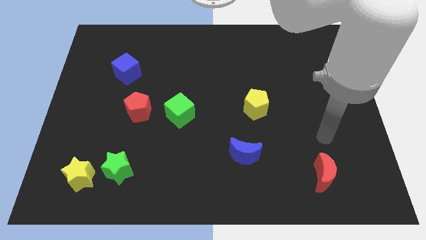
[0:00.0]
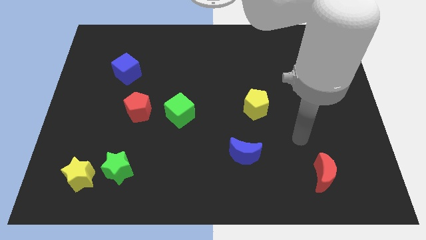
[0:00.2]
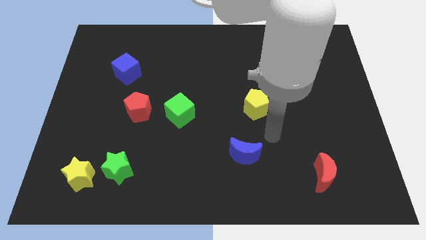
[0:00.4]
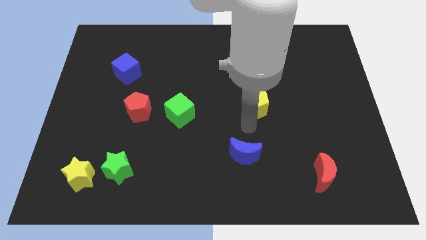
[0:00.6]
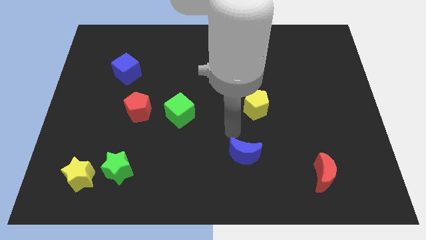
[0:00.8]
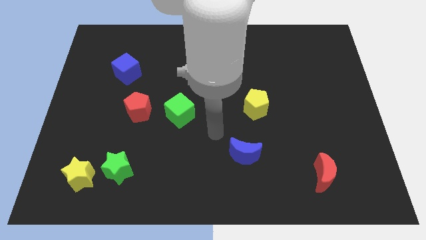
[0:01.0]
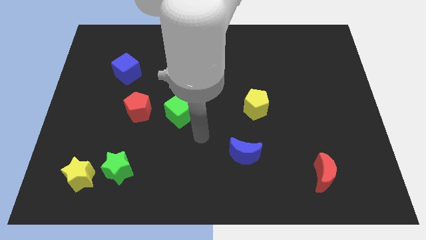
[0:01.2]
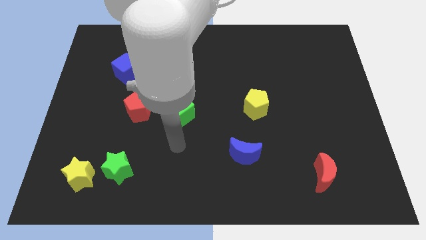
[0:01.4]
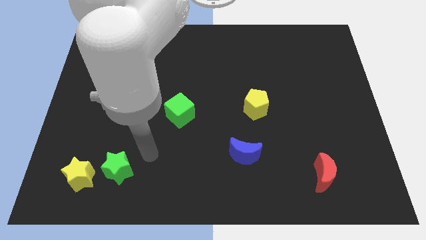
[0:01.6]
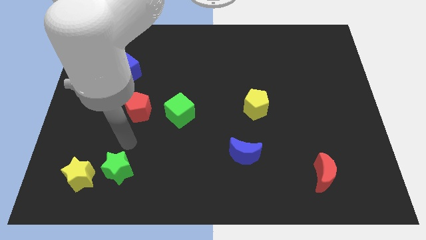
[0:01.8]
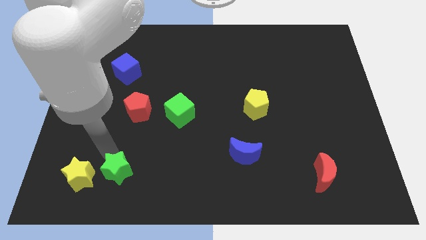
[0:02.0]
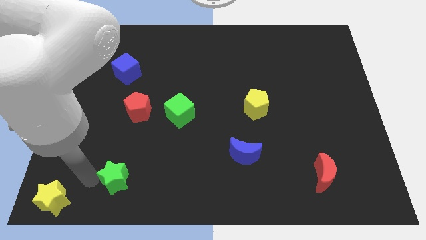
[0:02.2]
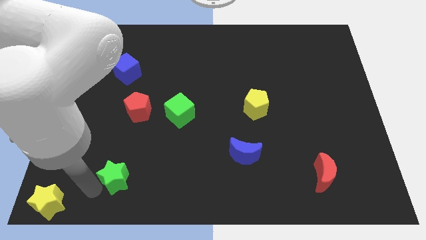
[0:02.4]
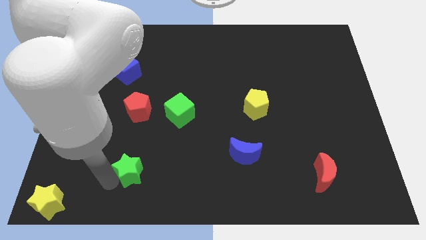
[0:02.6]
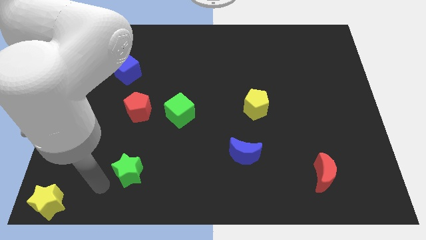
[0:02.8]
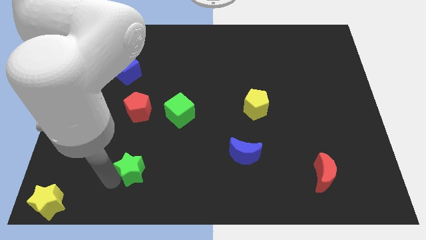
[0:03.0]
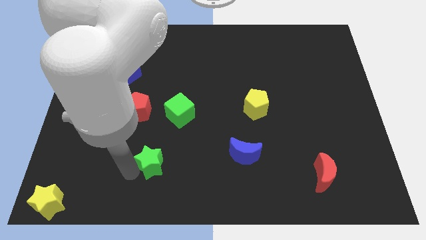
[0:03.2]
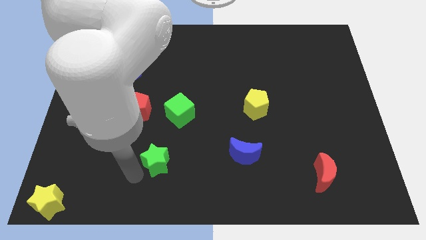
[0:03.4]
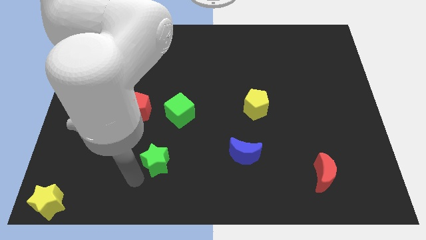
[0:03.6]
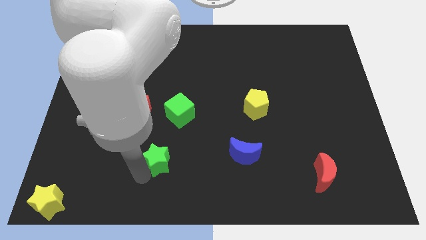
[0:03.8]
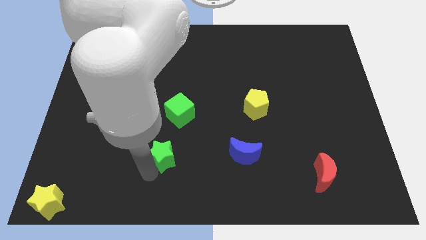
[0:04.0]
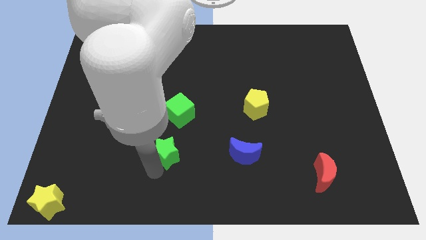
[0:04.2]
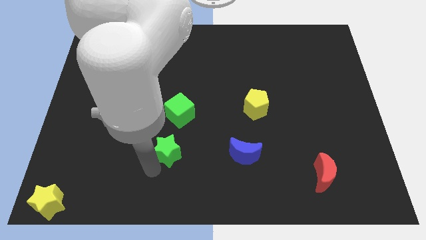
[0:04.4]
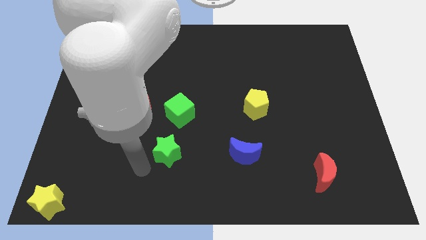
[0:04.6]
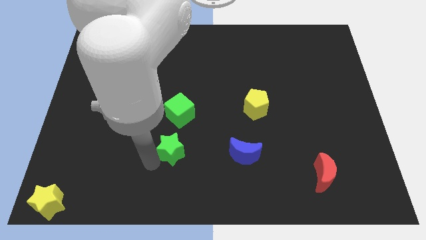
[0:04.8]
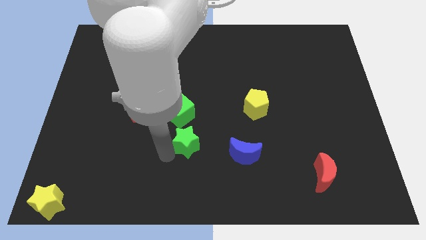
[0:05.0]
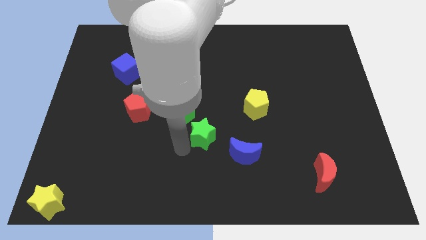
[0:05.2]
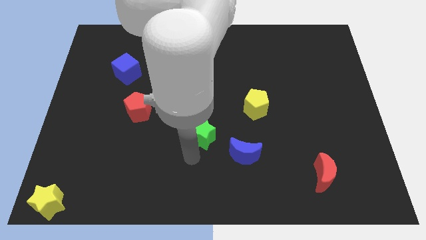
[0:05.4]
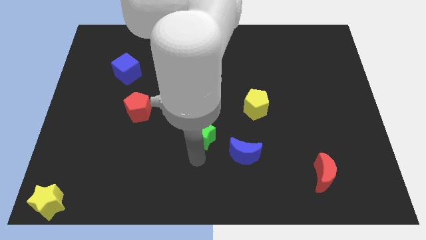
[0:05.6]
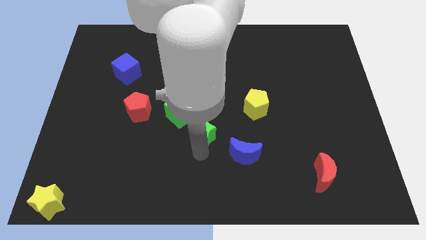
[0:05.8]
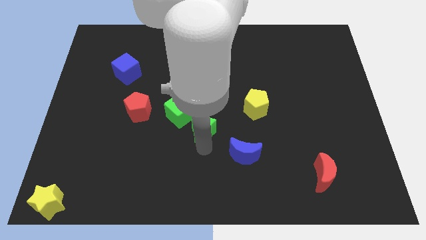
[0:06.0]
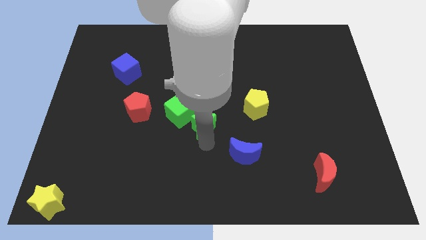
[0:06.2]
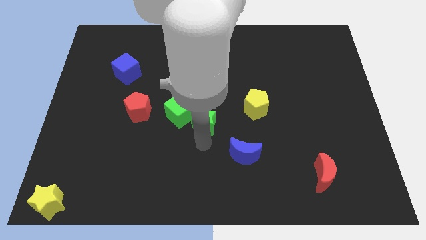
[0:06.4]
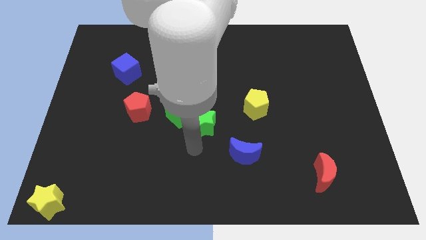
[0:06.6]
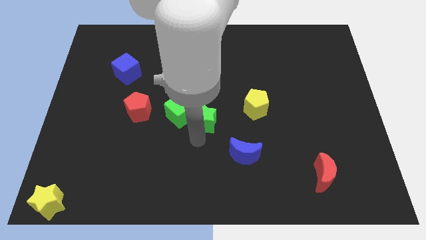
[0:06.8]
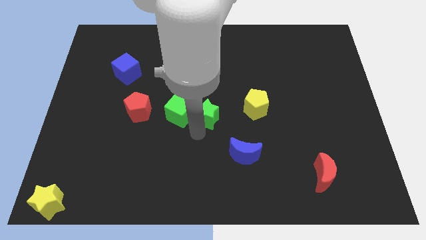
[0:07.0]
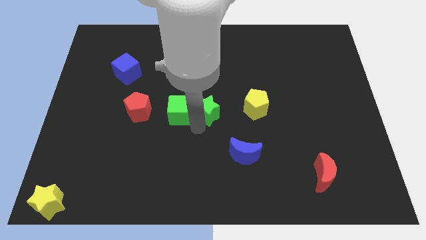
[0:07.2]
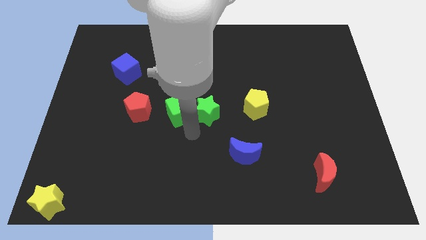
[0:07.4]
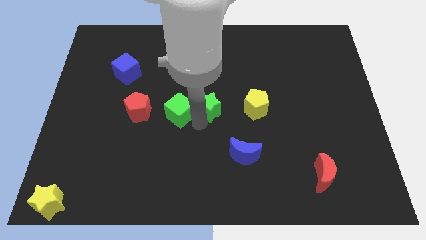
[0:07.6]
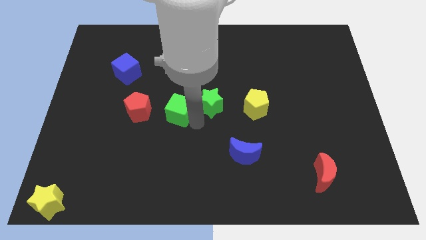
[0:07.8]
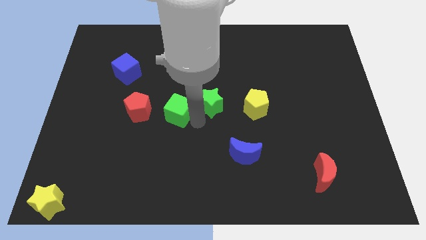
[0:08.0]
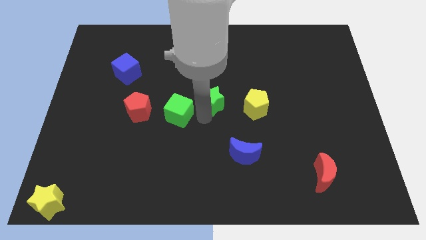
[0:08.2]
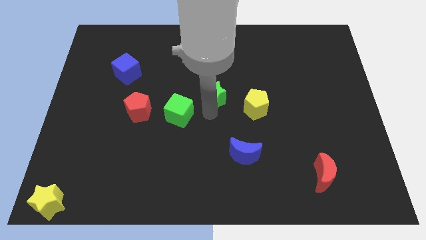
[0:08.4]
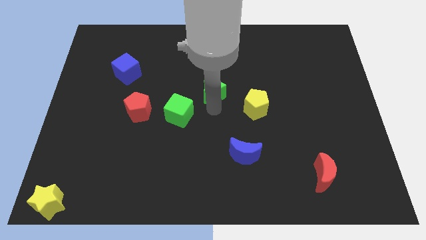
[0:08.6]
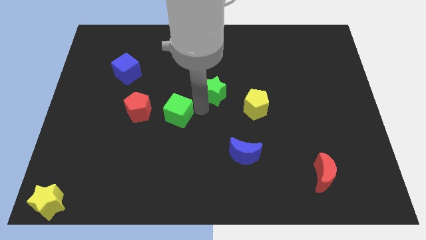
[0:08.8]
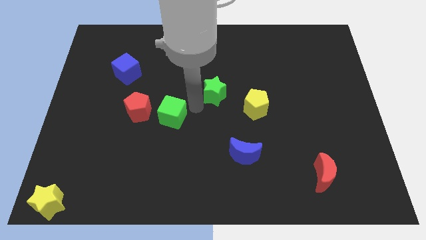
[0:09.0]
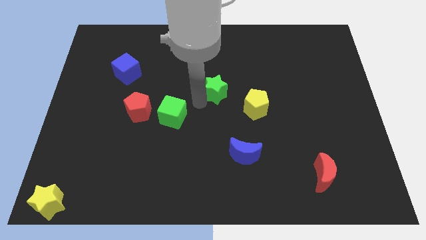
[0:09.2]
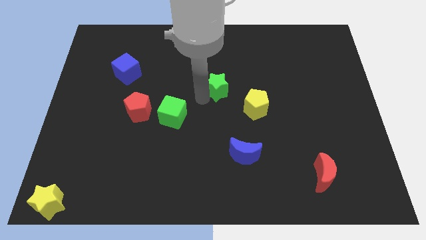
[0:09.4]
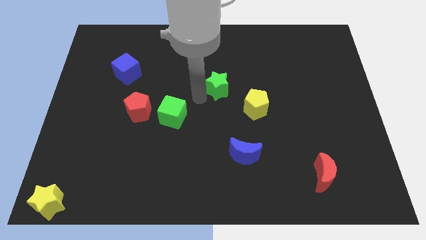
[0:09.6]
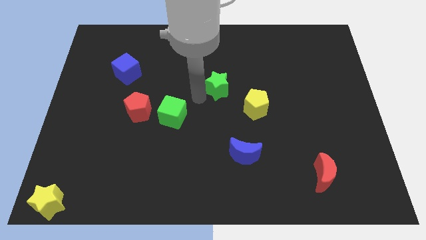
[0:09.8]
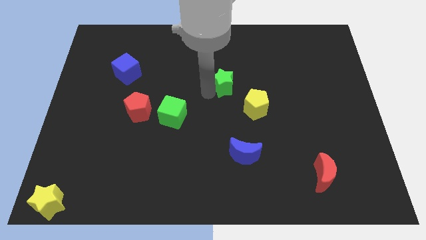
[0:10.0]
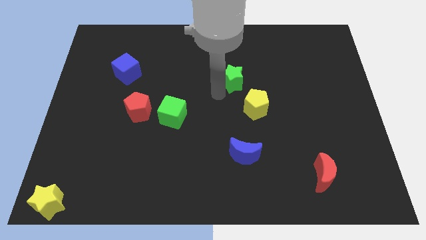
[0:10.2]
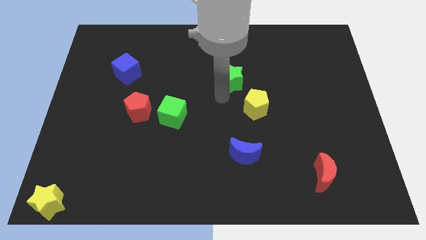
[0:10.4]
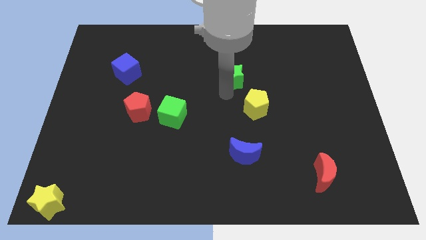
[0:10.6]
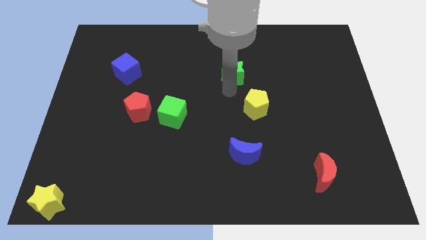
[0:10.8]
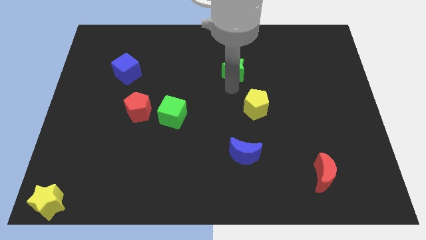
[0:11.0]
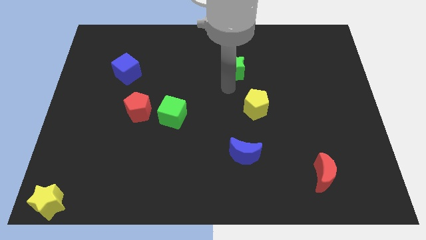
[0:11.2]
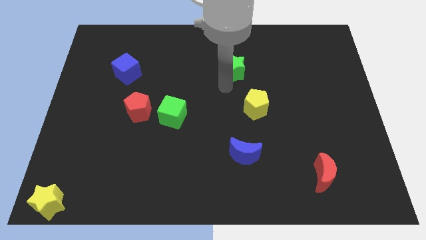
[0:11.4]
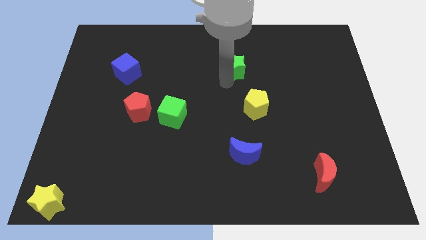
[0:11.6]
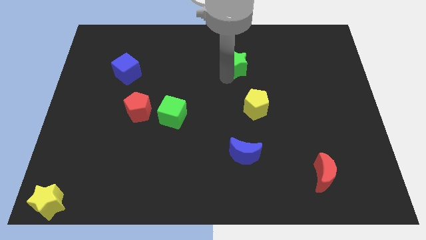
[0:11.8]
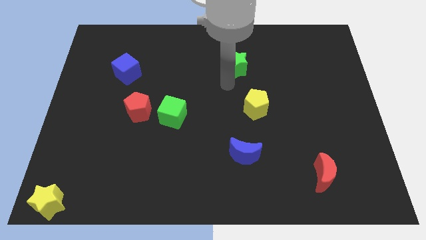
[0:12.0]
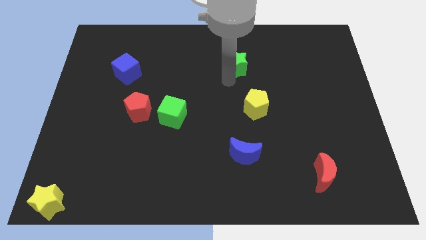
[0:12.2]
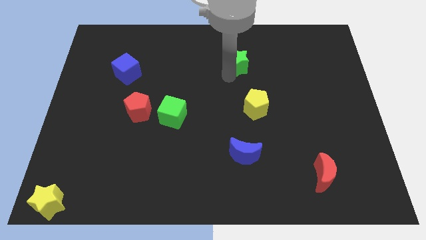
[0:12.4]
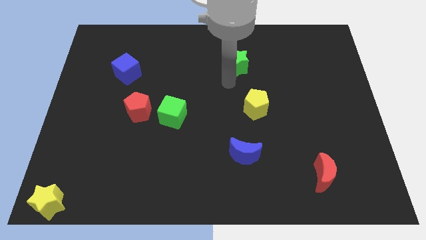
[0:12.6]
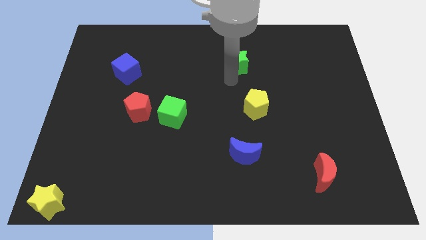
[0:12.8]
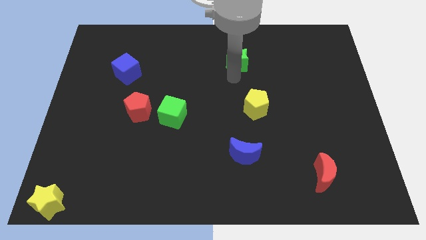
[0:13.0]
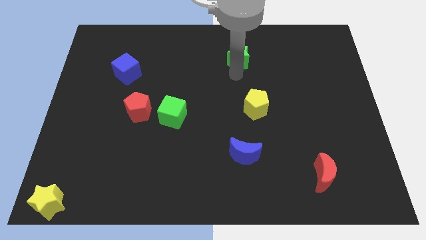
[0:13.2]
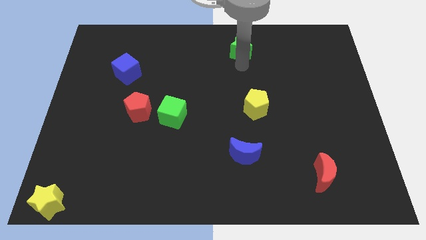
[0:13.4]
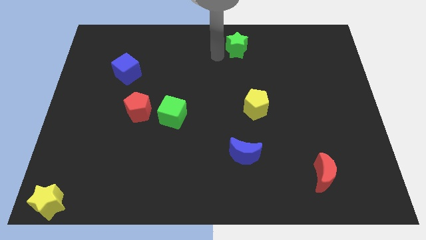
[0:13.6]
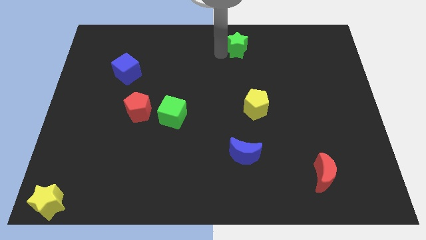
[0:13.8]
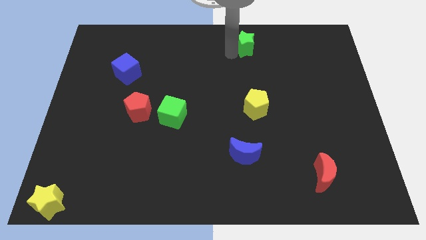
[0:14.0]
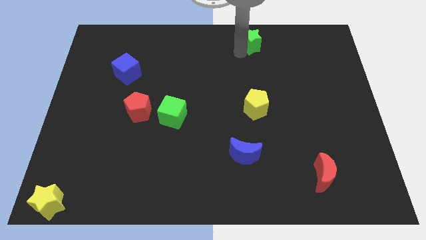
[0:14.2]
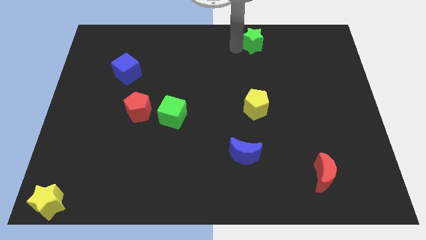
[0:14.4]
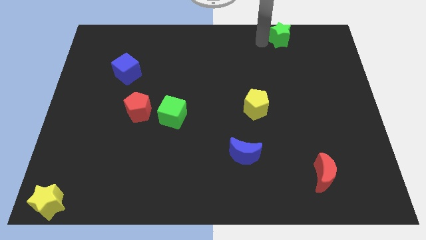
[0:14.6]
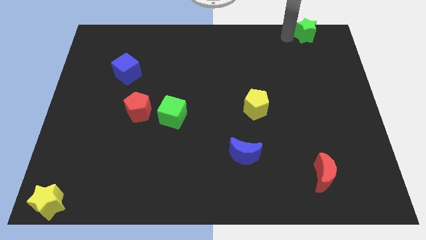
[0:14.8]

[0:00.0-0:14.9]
slide the green star to the upper right corner
